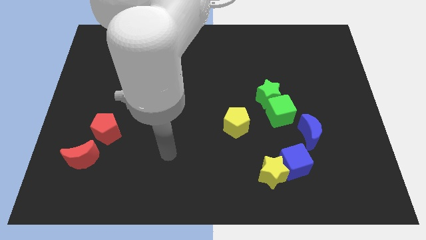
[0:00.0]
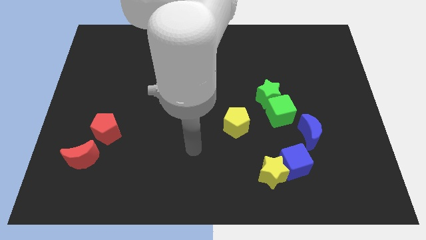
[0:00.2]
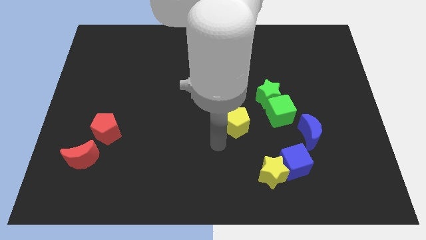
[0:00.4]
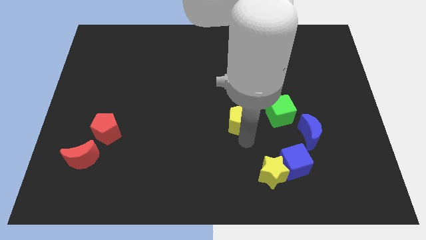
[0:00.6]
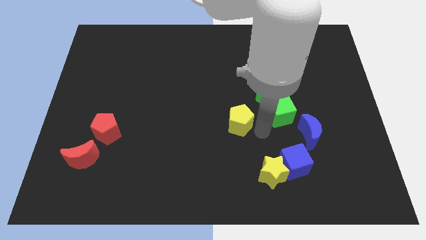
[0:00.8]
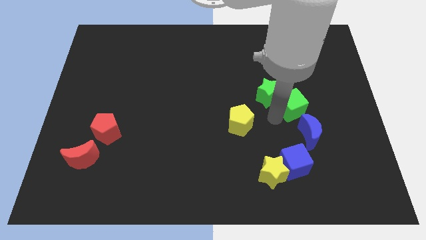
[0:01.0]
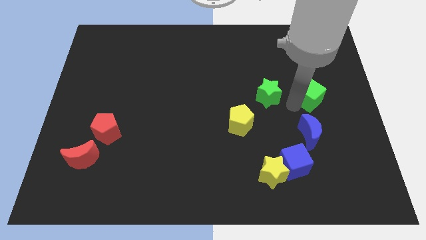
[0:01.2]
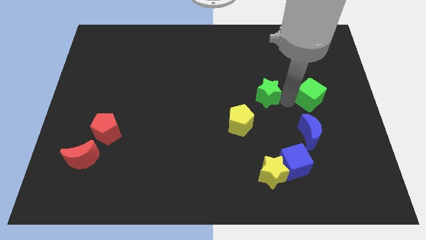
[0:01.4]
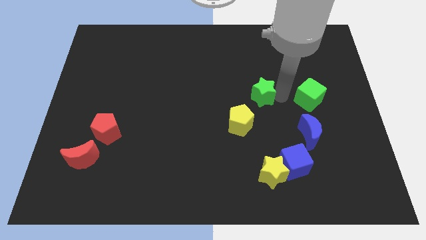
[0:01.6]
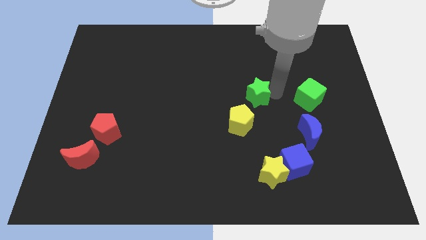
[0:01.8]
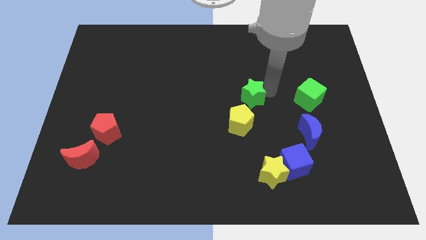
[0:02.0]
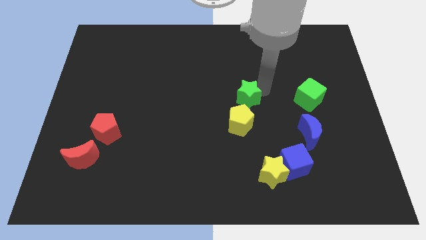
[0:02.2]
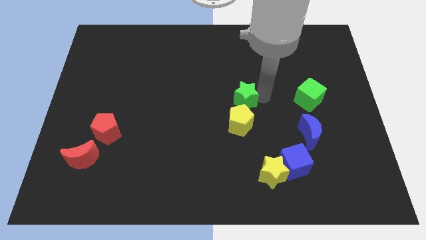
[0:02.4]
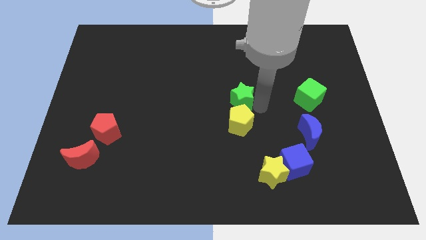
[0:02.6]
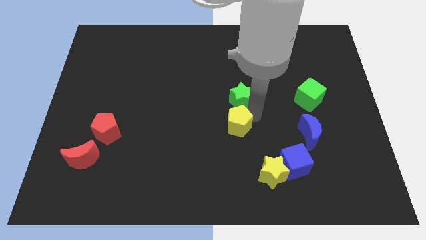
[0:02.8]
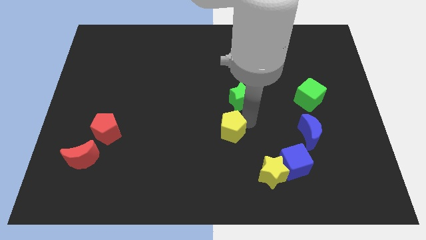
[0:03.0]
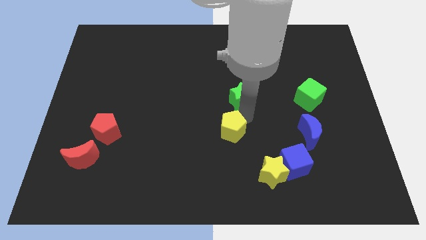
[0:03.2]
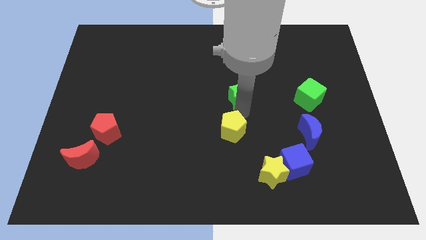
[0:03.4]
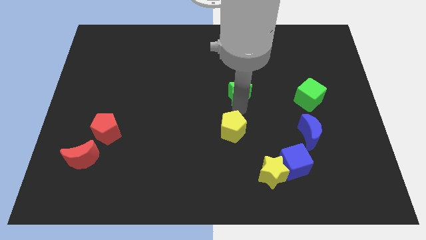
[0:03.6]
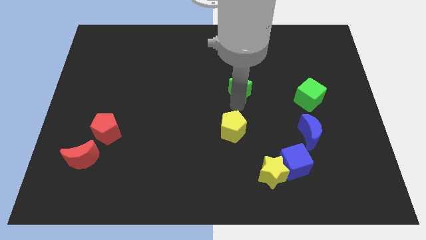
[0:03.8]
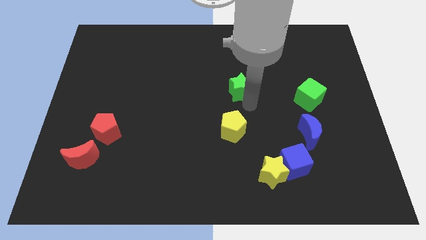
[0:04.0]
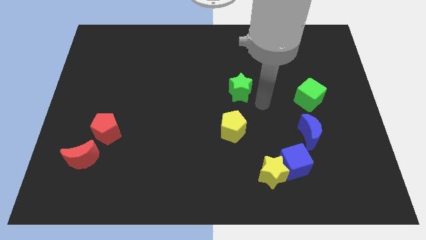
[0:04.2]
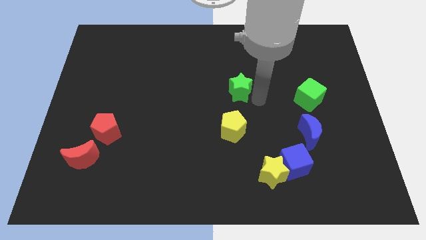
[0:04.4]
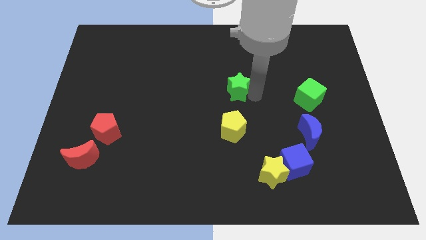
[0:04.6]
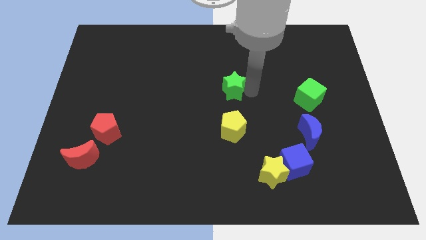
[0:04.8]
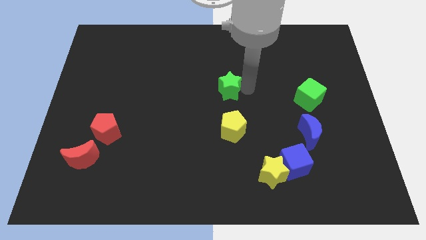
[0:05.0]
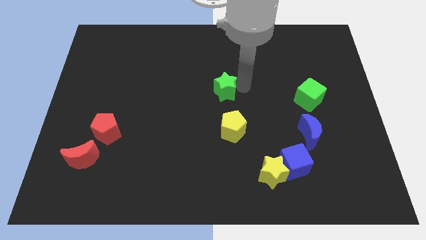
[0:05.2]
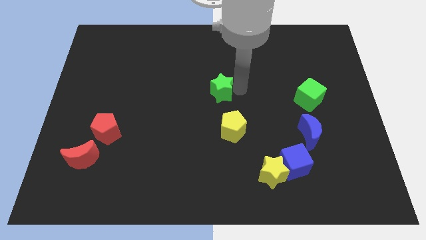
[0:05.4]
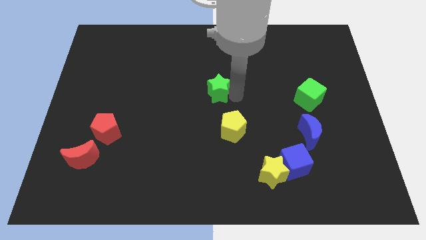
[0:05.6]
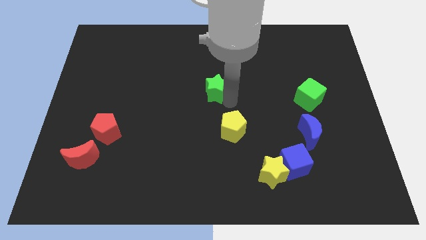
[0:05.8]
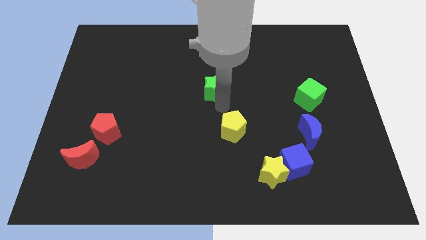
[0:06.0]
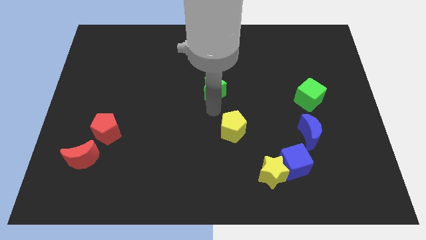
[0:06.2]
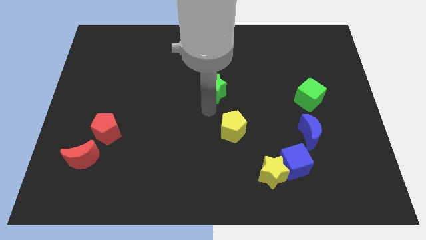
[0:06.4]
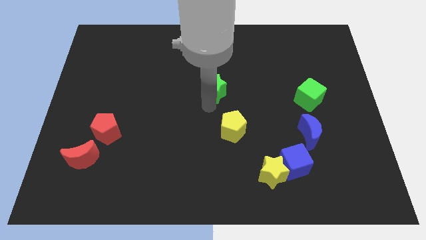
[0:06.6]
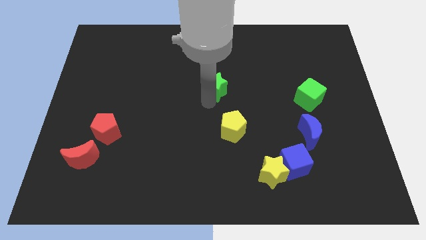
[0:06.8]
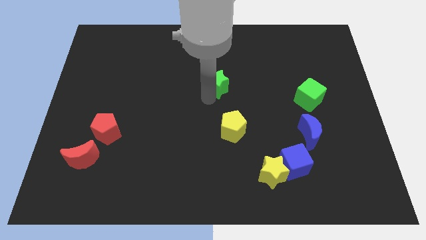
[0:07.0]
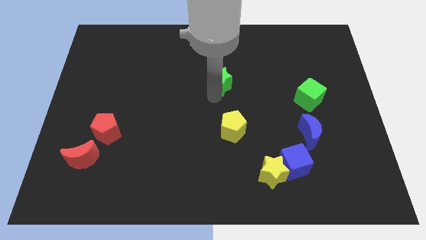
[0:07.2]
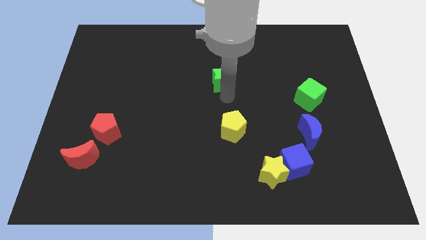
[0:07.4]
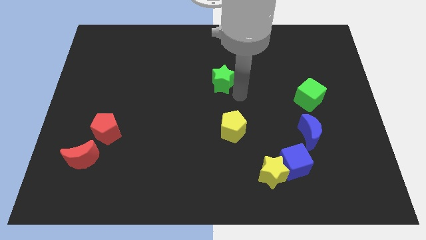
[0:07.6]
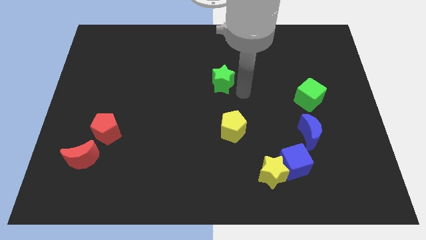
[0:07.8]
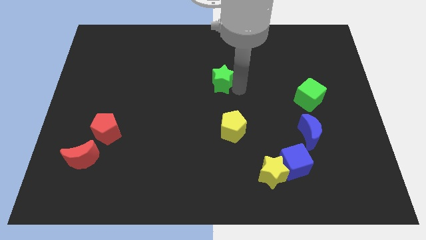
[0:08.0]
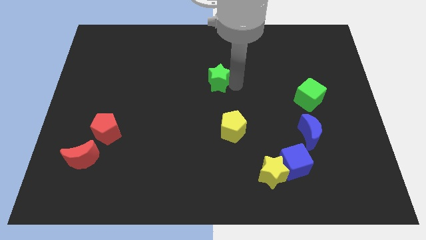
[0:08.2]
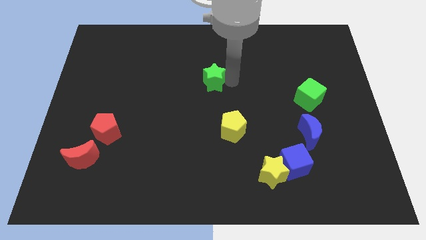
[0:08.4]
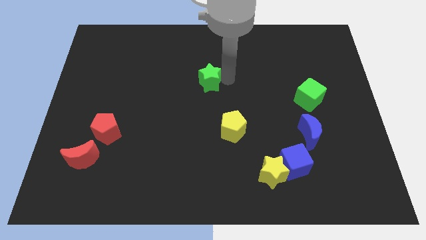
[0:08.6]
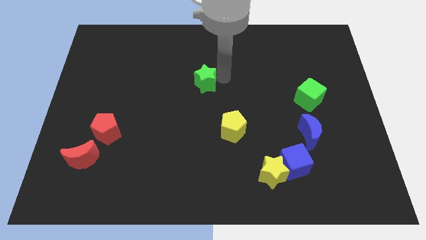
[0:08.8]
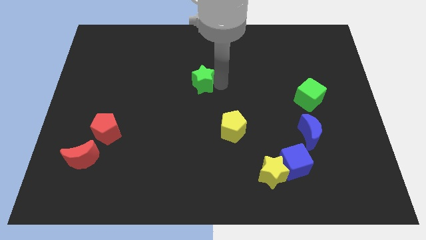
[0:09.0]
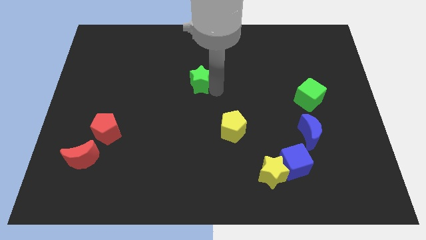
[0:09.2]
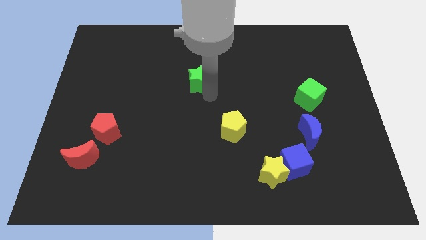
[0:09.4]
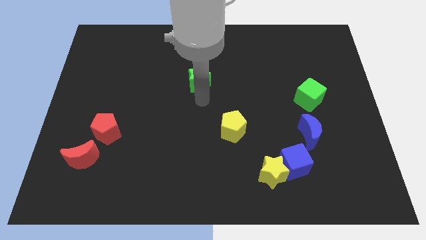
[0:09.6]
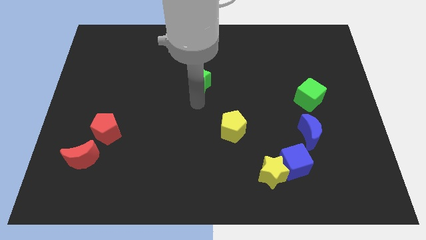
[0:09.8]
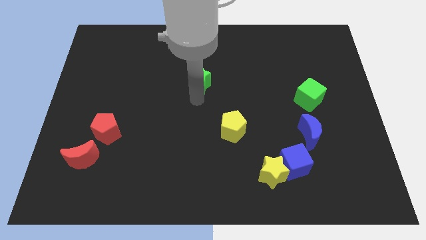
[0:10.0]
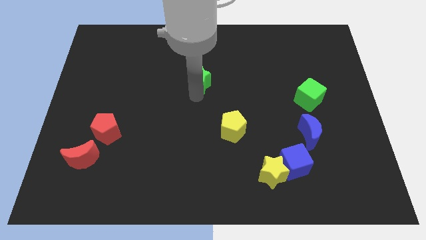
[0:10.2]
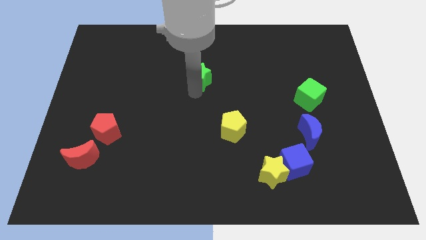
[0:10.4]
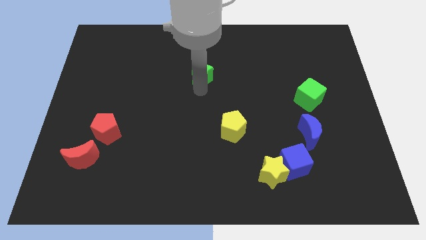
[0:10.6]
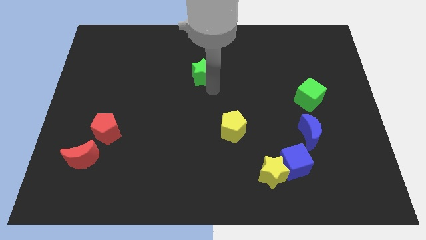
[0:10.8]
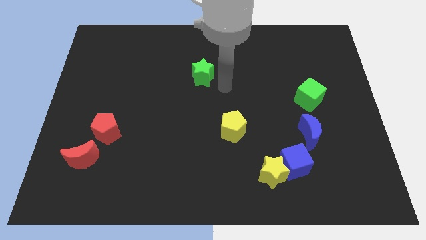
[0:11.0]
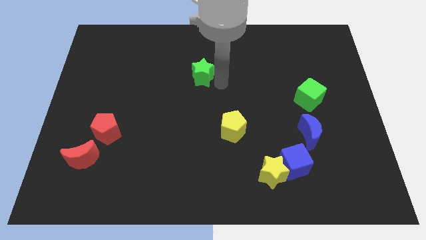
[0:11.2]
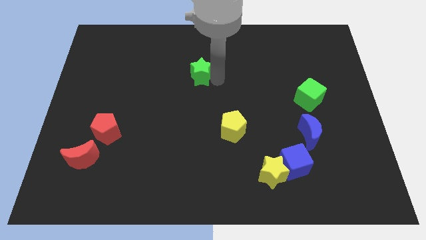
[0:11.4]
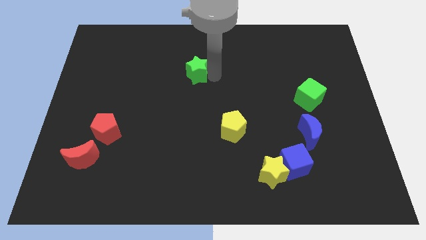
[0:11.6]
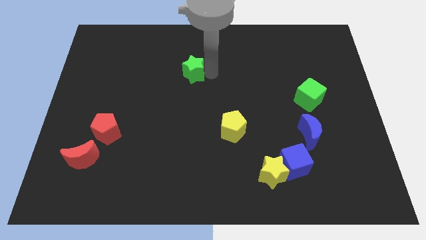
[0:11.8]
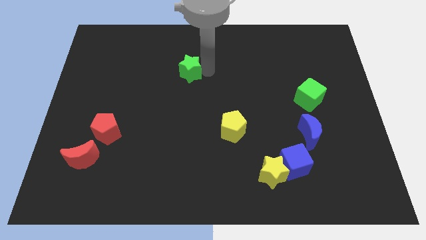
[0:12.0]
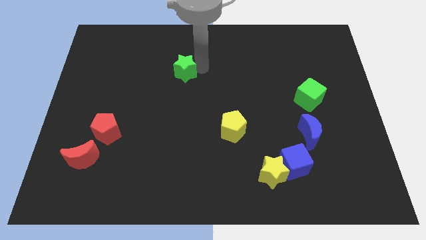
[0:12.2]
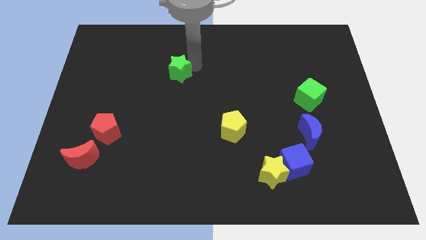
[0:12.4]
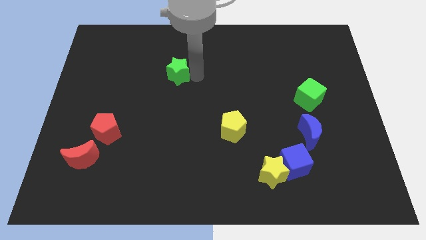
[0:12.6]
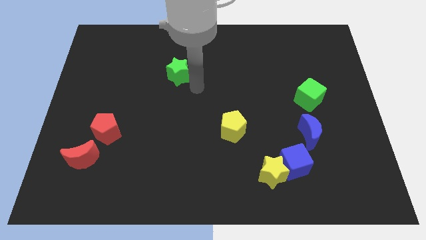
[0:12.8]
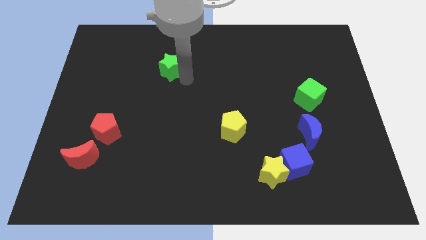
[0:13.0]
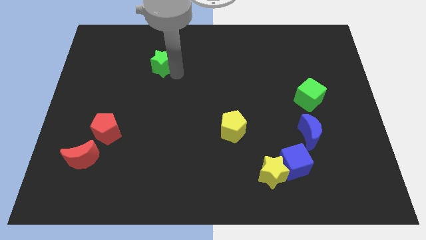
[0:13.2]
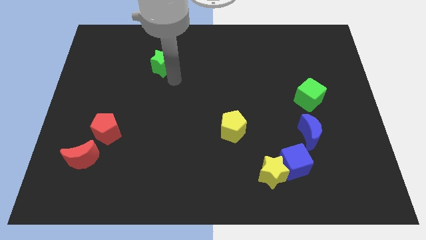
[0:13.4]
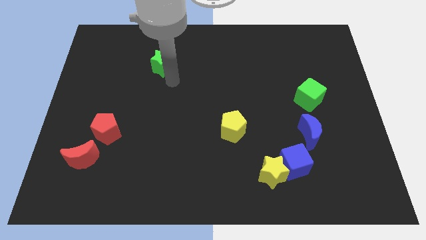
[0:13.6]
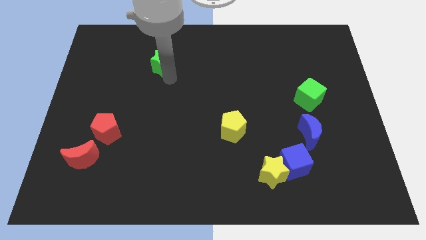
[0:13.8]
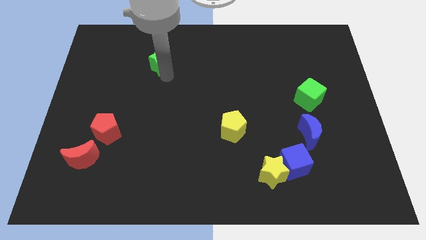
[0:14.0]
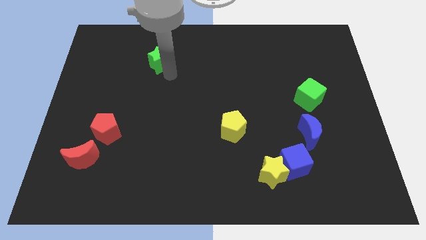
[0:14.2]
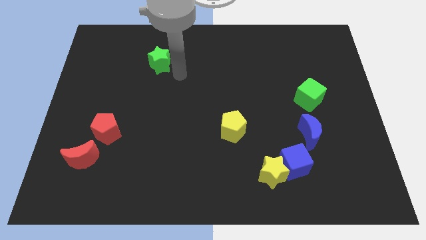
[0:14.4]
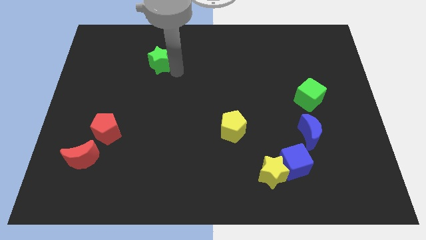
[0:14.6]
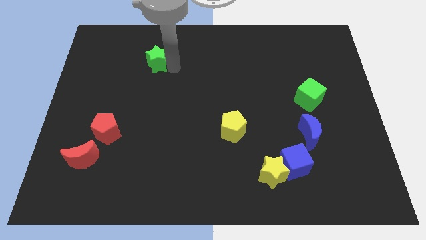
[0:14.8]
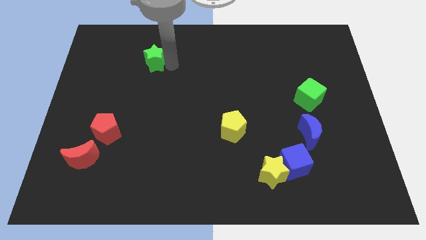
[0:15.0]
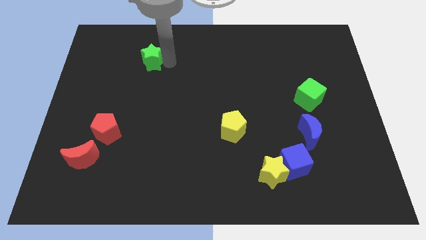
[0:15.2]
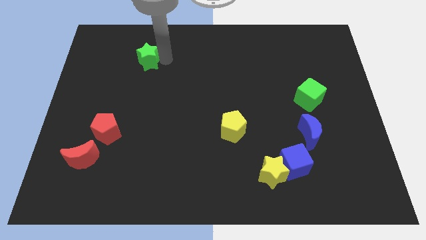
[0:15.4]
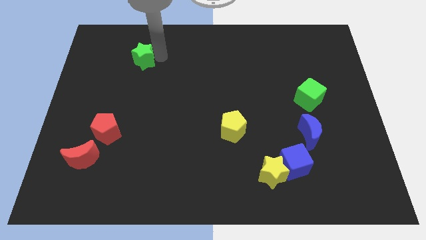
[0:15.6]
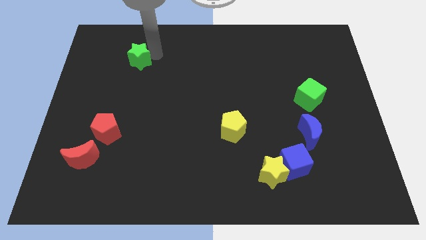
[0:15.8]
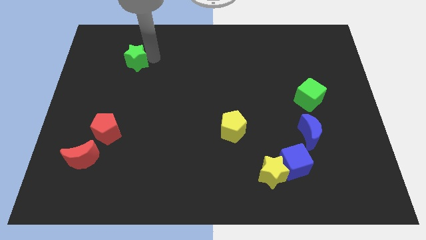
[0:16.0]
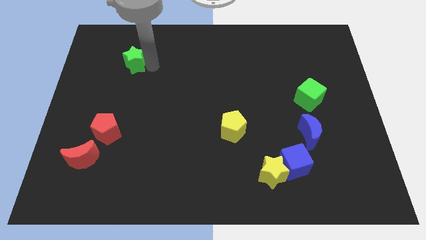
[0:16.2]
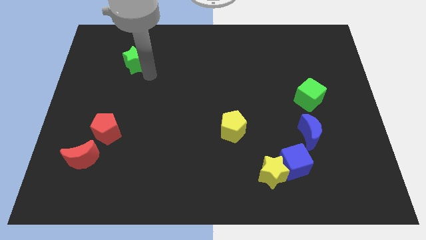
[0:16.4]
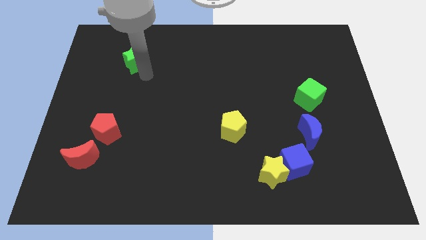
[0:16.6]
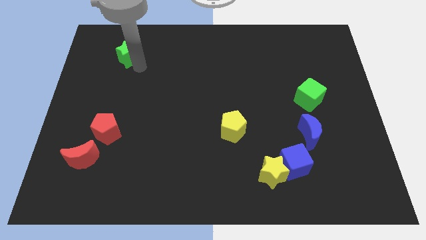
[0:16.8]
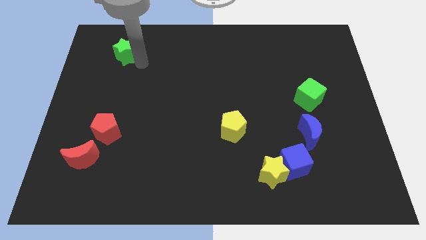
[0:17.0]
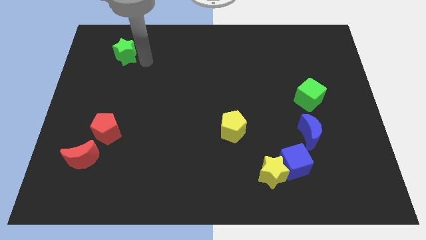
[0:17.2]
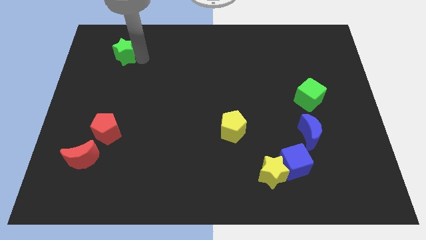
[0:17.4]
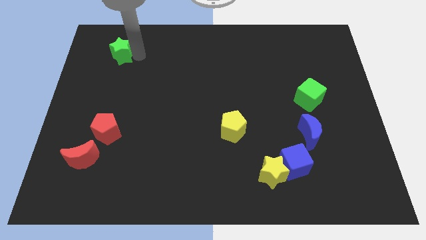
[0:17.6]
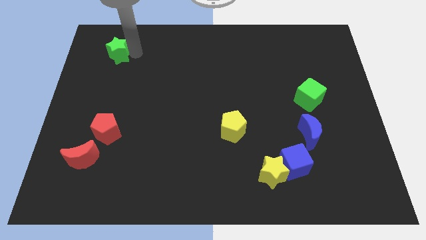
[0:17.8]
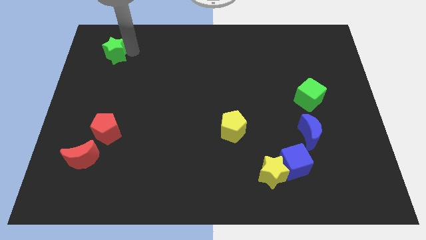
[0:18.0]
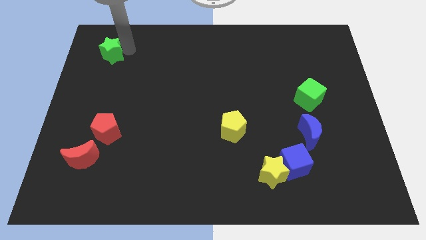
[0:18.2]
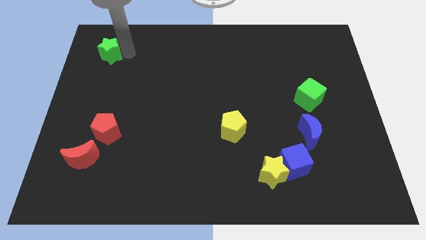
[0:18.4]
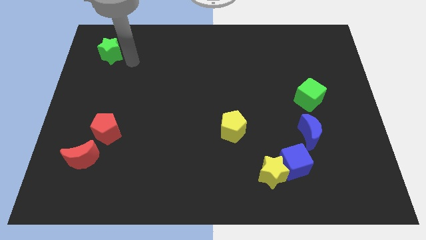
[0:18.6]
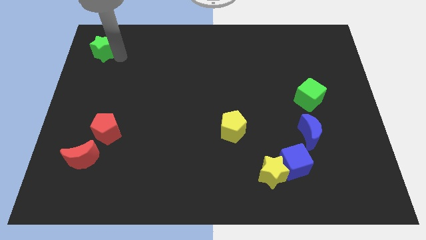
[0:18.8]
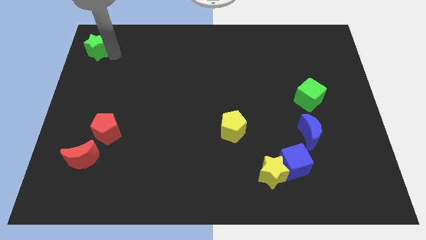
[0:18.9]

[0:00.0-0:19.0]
put the green star to the top left of the board
